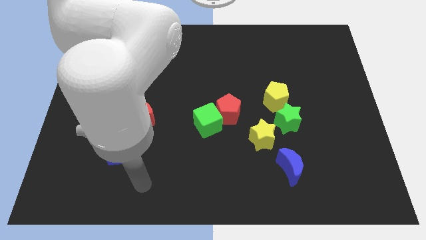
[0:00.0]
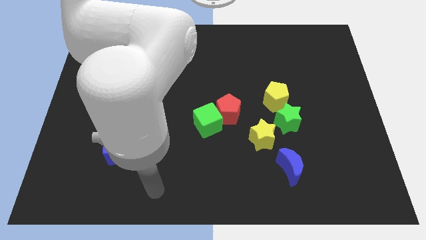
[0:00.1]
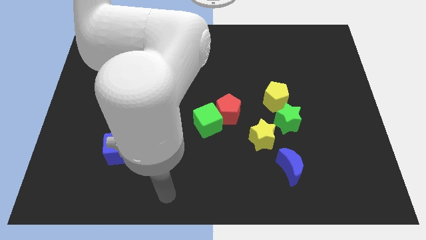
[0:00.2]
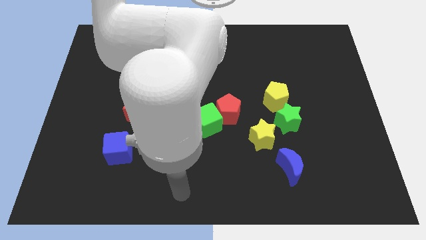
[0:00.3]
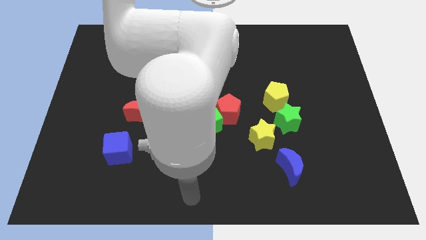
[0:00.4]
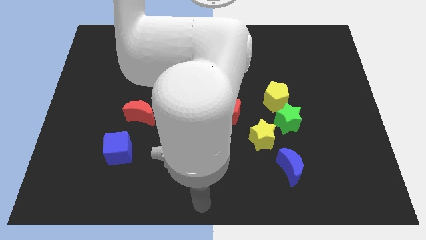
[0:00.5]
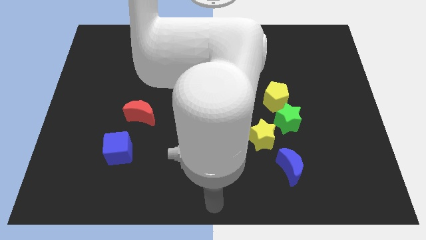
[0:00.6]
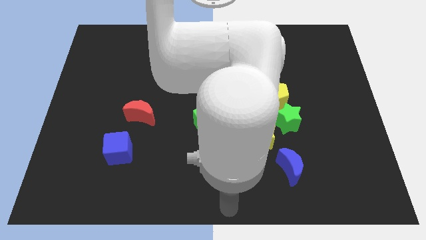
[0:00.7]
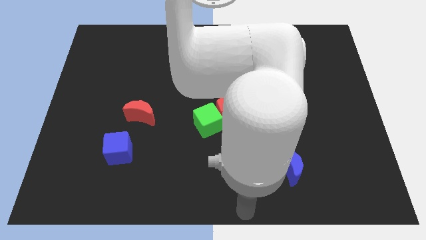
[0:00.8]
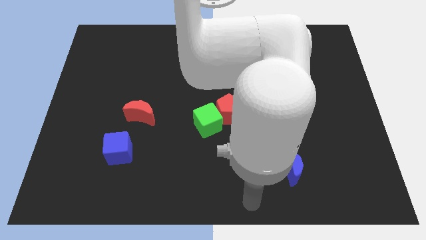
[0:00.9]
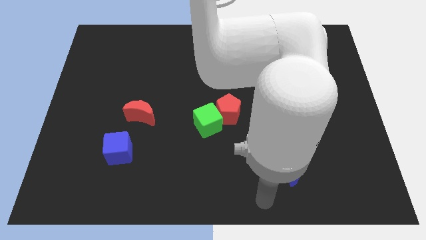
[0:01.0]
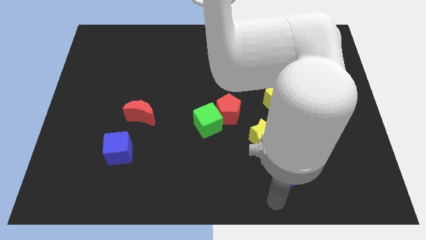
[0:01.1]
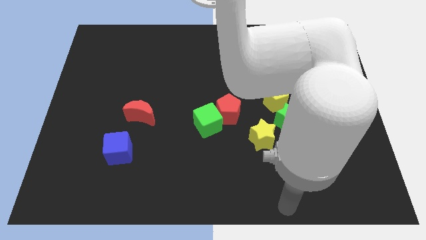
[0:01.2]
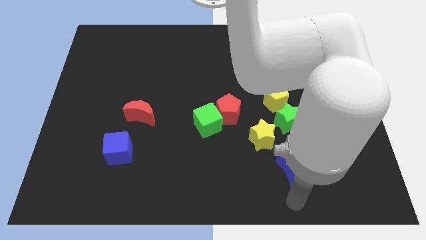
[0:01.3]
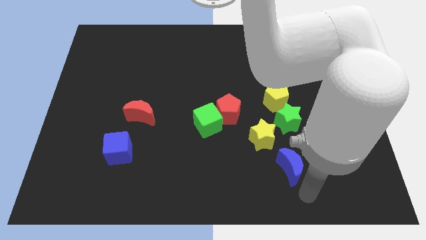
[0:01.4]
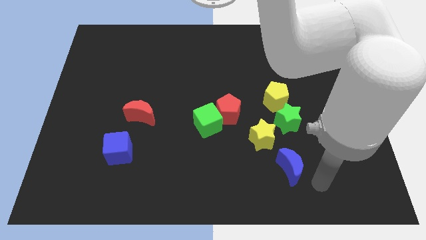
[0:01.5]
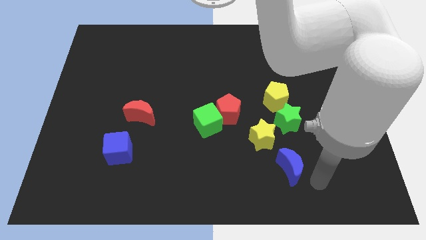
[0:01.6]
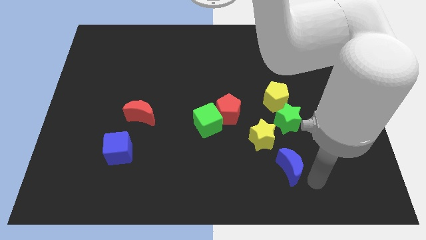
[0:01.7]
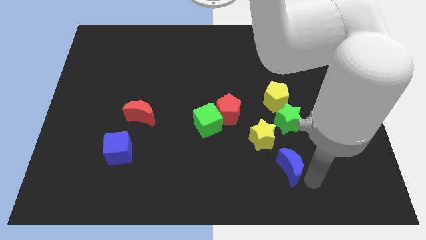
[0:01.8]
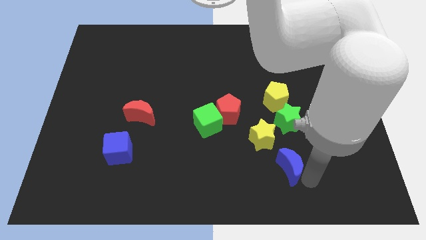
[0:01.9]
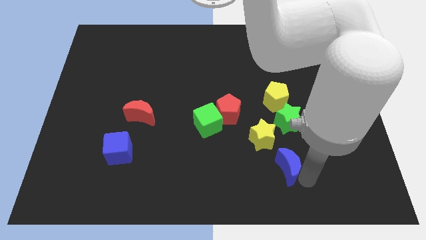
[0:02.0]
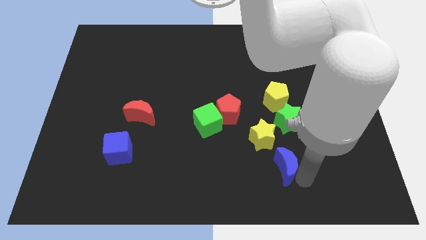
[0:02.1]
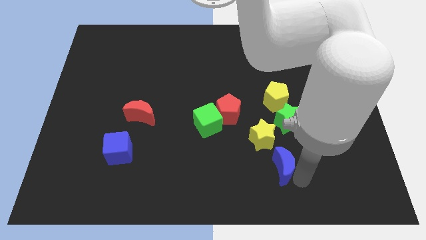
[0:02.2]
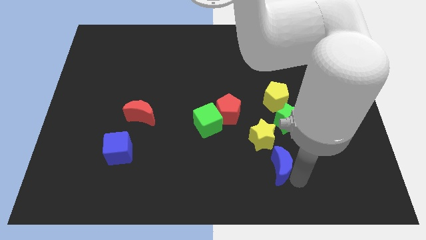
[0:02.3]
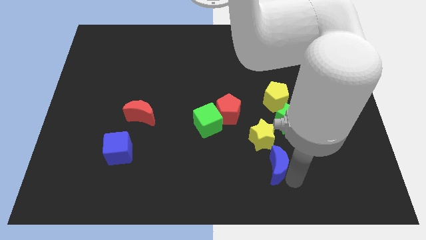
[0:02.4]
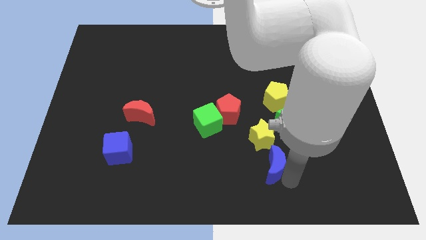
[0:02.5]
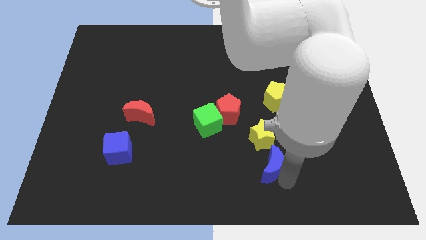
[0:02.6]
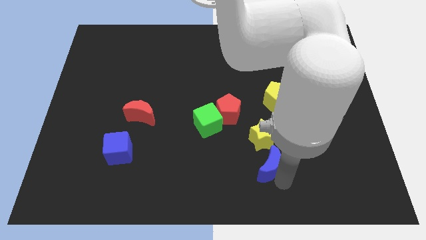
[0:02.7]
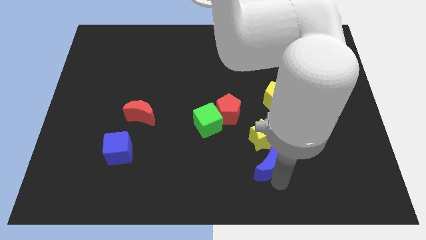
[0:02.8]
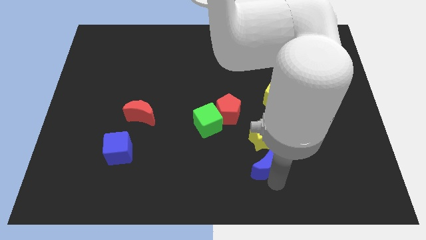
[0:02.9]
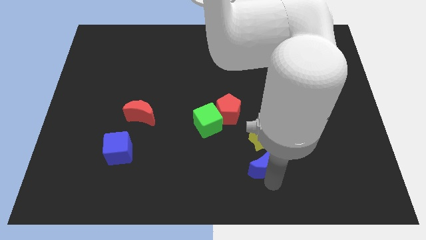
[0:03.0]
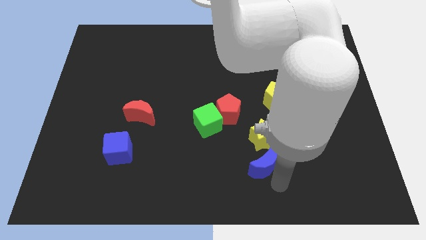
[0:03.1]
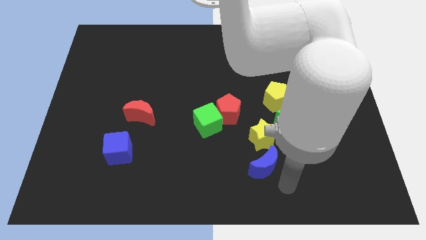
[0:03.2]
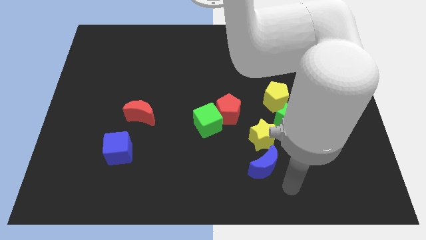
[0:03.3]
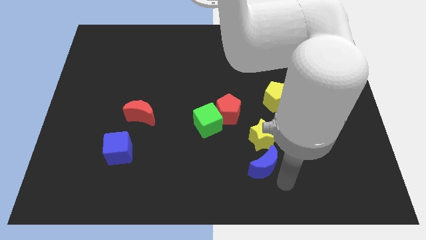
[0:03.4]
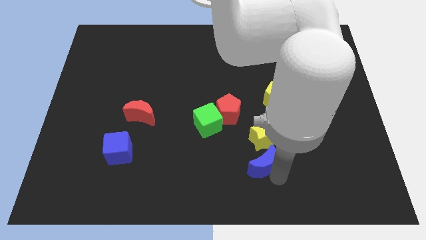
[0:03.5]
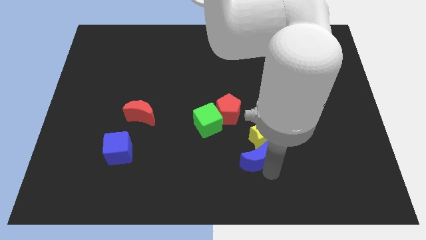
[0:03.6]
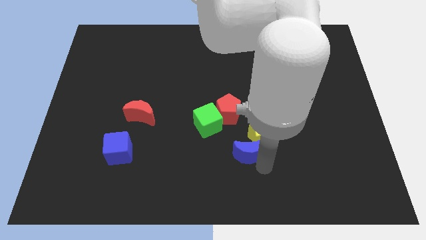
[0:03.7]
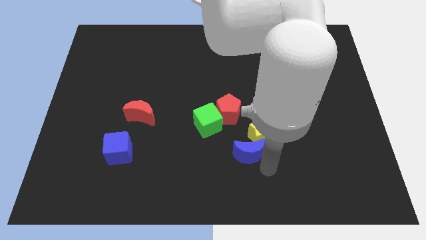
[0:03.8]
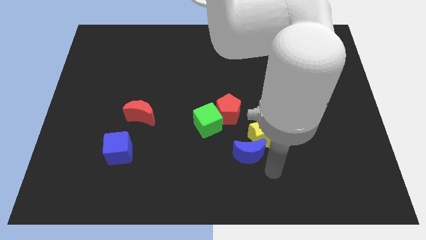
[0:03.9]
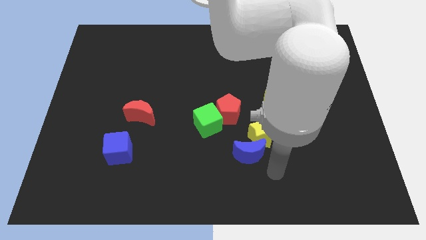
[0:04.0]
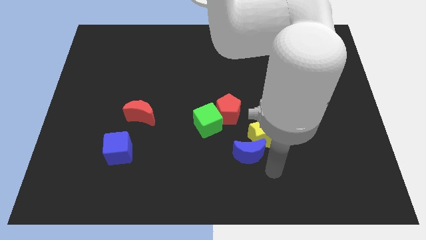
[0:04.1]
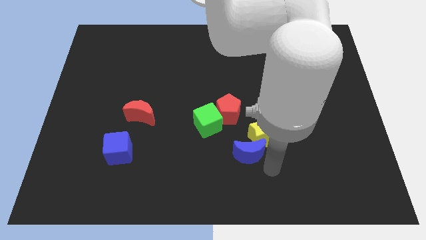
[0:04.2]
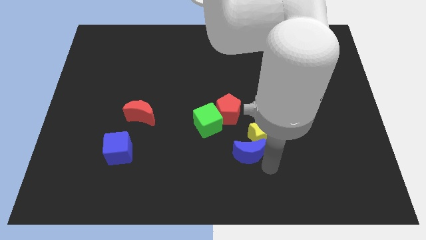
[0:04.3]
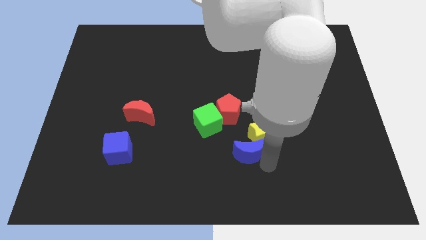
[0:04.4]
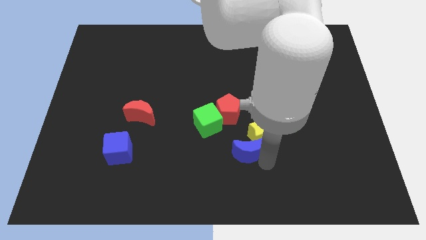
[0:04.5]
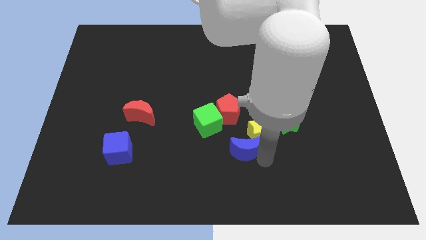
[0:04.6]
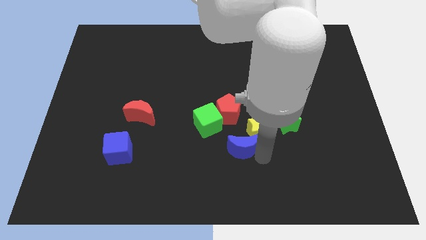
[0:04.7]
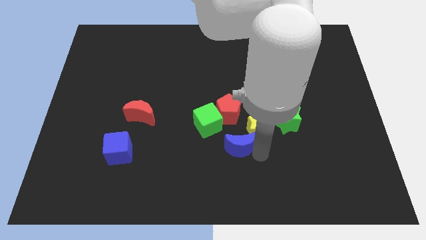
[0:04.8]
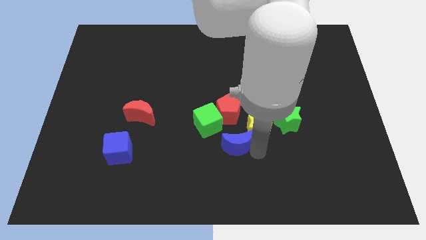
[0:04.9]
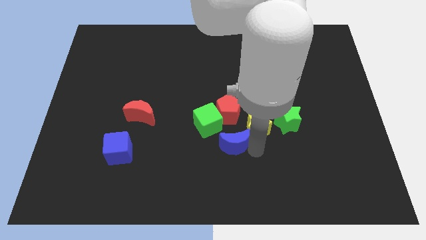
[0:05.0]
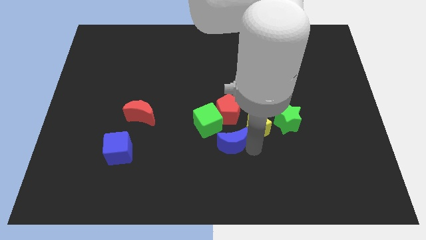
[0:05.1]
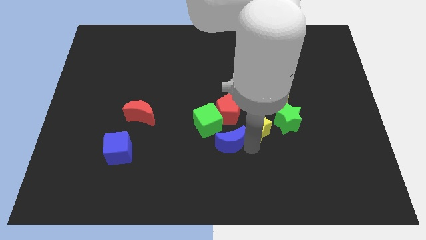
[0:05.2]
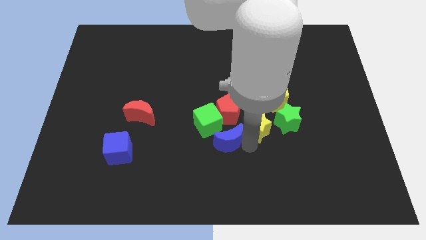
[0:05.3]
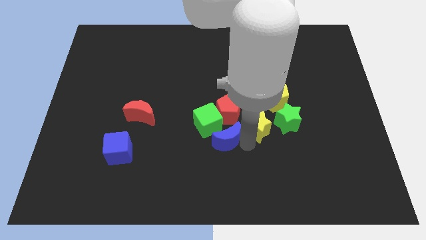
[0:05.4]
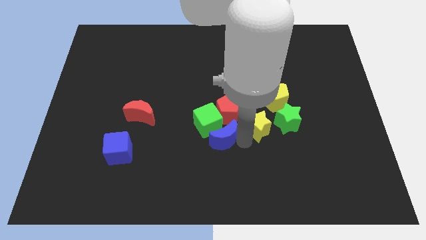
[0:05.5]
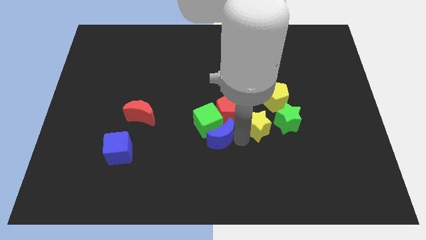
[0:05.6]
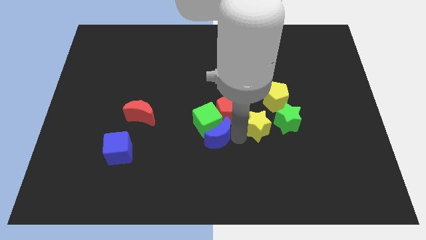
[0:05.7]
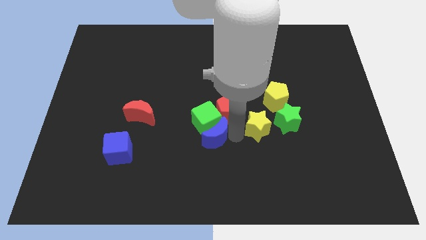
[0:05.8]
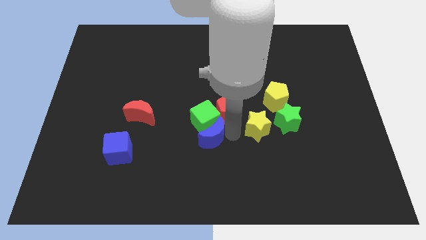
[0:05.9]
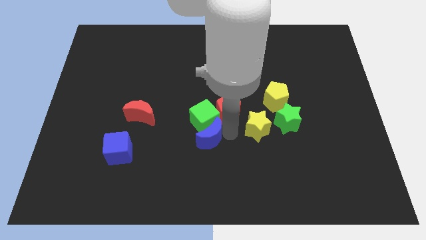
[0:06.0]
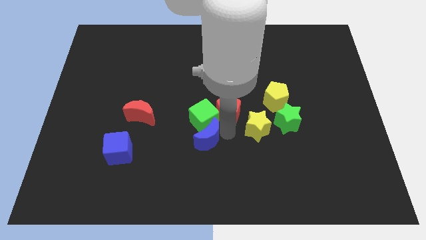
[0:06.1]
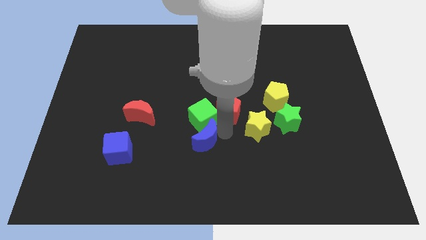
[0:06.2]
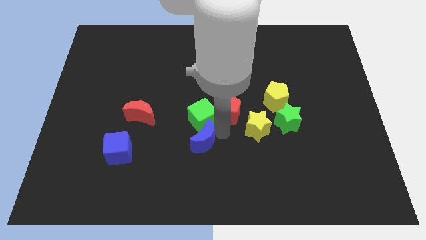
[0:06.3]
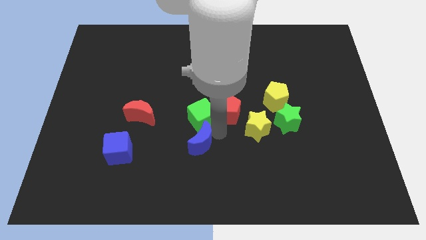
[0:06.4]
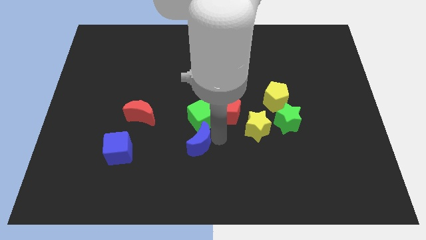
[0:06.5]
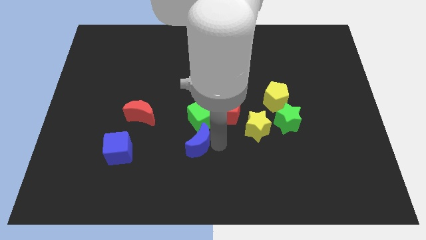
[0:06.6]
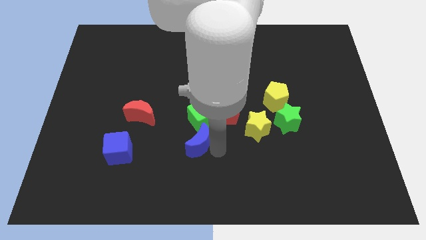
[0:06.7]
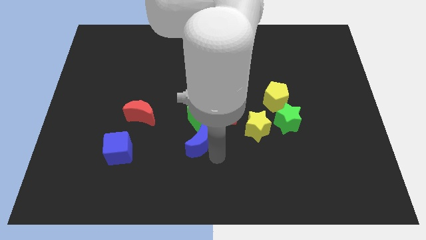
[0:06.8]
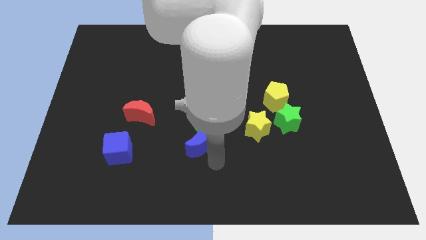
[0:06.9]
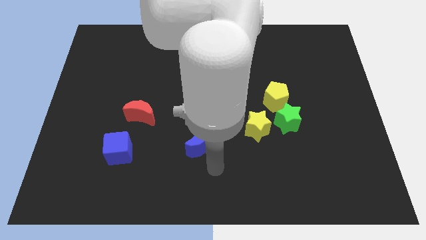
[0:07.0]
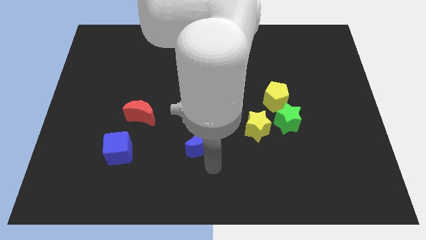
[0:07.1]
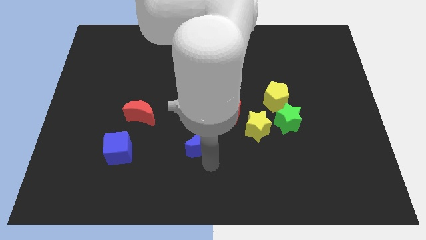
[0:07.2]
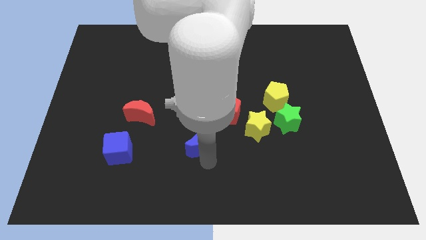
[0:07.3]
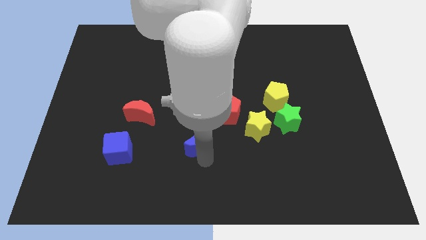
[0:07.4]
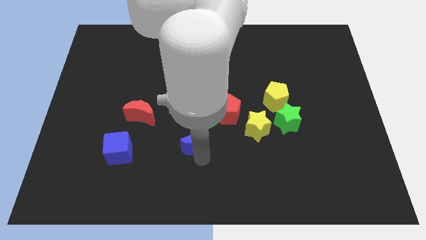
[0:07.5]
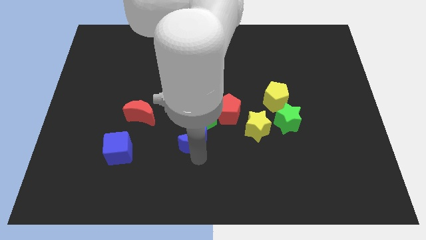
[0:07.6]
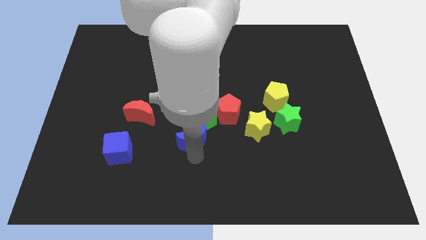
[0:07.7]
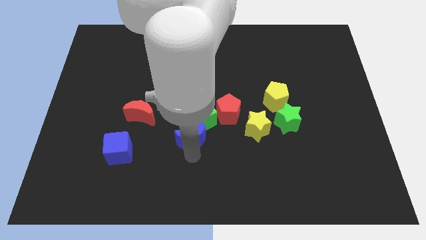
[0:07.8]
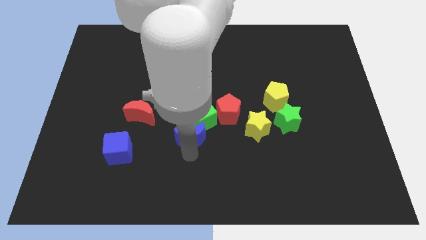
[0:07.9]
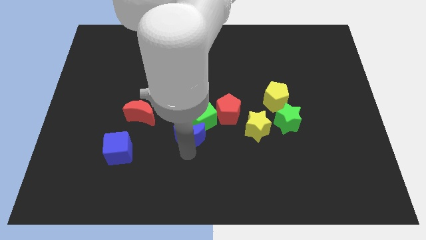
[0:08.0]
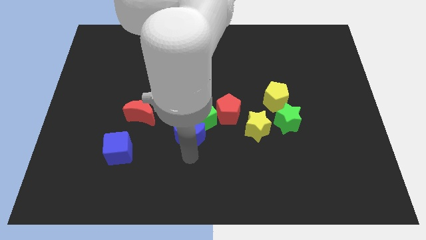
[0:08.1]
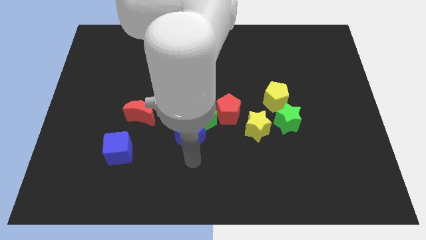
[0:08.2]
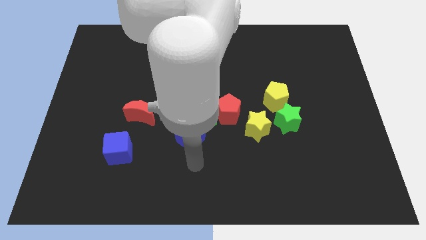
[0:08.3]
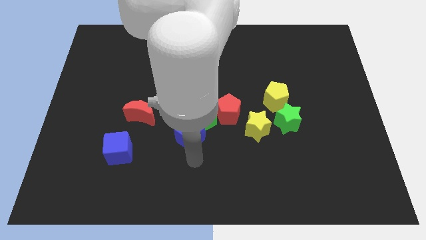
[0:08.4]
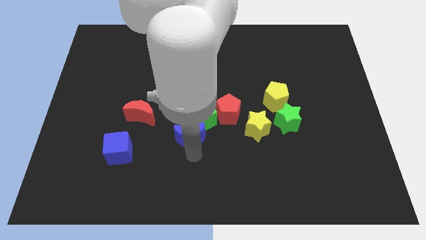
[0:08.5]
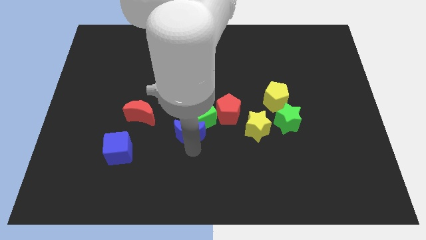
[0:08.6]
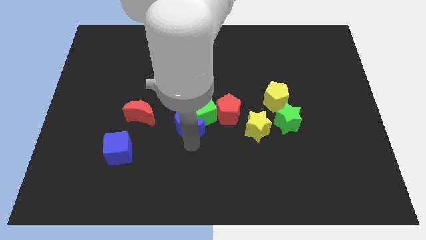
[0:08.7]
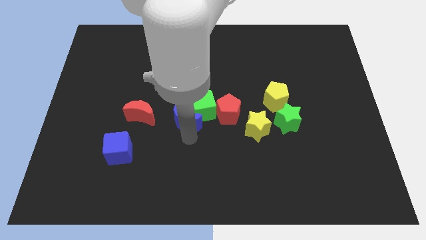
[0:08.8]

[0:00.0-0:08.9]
push the blue moon up and left diagonally
